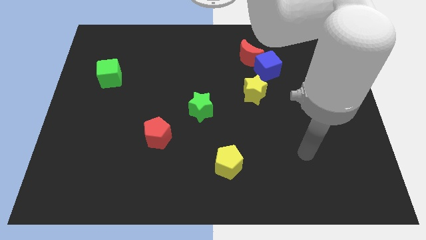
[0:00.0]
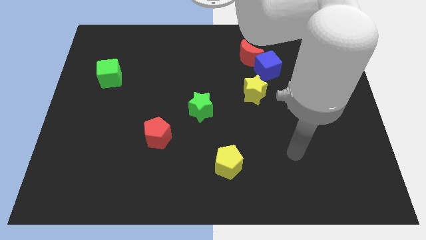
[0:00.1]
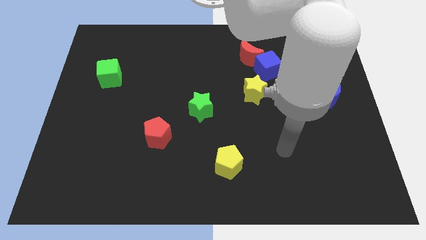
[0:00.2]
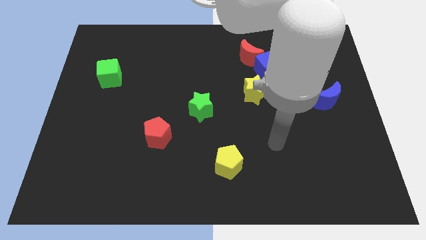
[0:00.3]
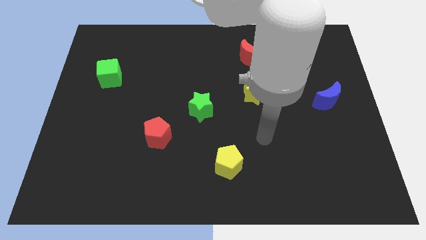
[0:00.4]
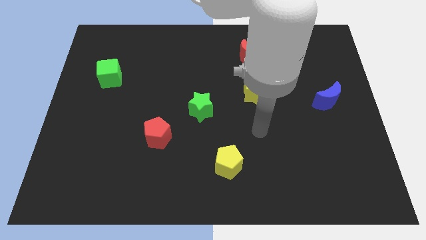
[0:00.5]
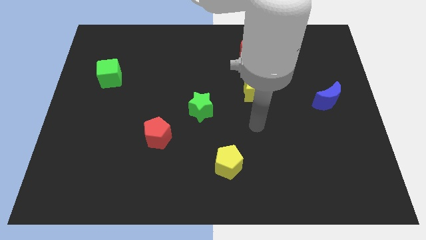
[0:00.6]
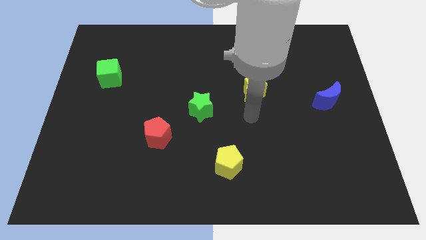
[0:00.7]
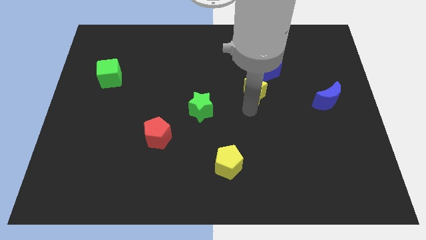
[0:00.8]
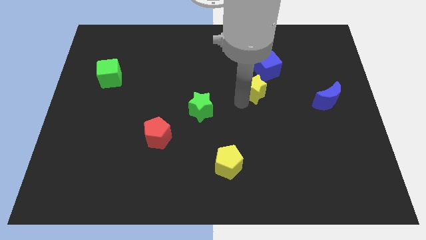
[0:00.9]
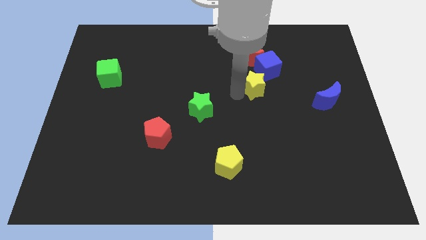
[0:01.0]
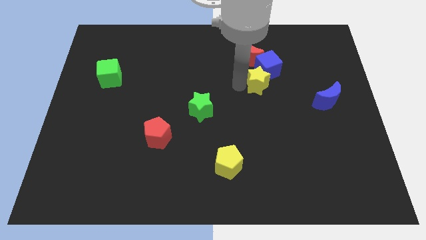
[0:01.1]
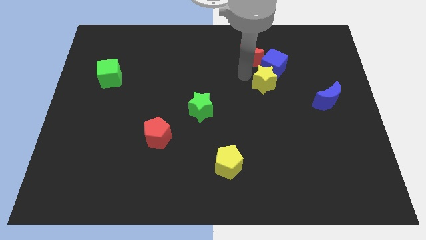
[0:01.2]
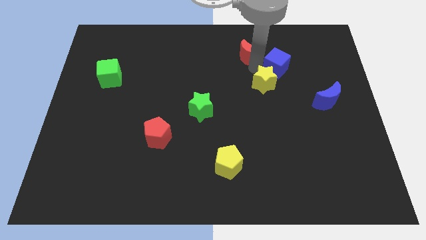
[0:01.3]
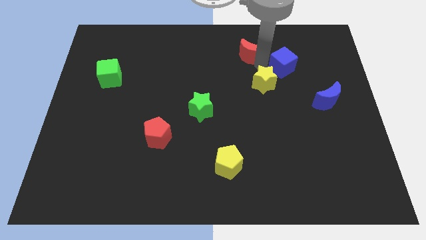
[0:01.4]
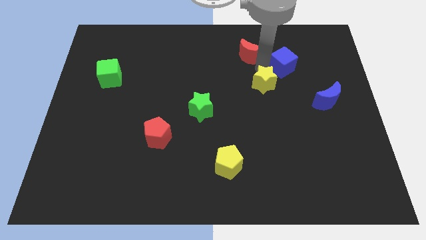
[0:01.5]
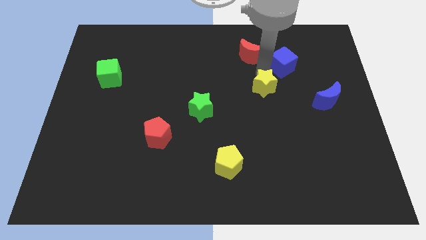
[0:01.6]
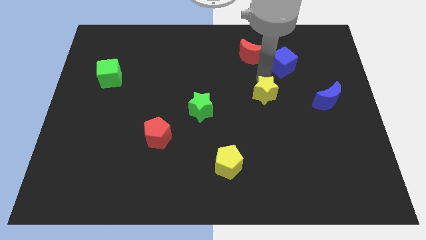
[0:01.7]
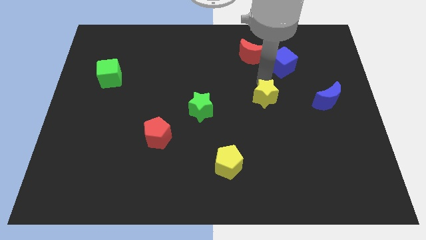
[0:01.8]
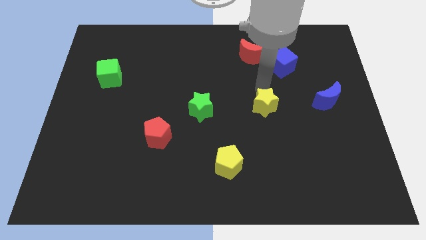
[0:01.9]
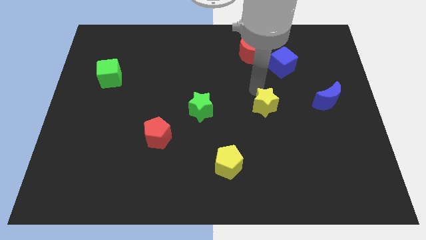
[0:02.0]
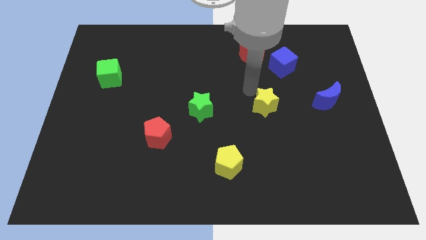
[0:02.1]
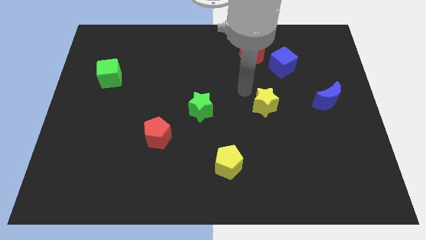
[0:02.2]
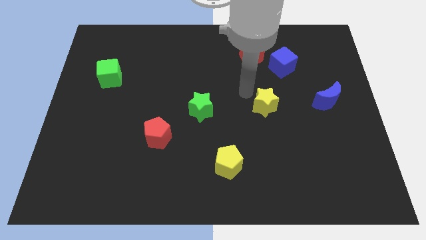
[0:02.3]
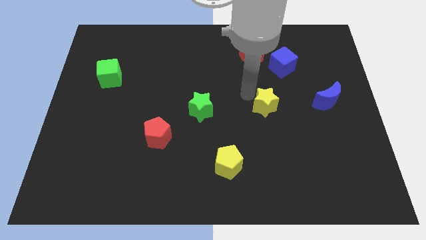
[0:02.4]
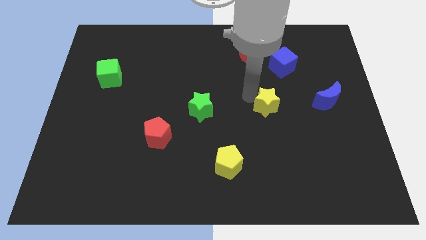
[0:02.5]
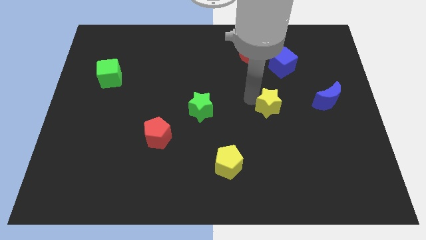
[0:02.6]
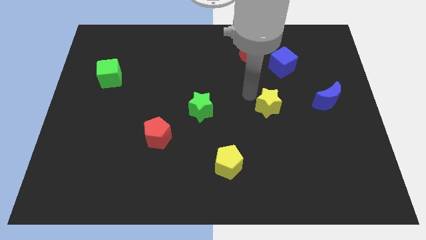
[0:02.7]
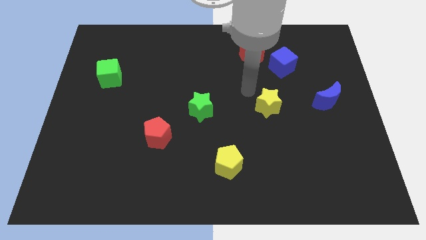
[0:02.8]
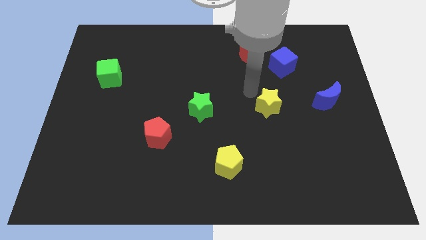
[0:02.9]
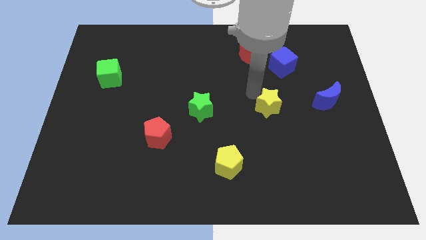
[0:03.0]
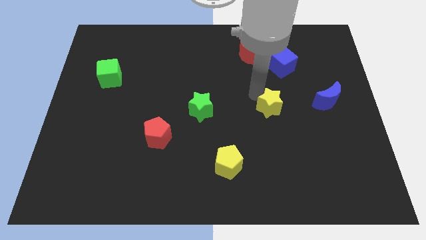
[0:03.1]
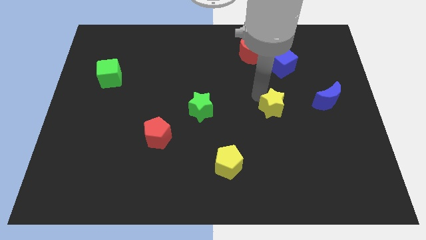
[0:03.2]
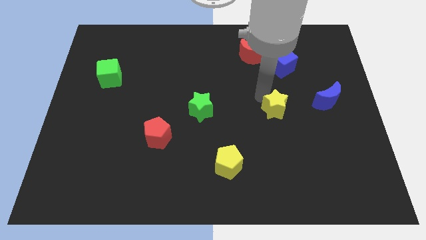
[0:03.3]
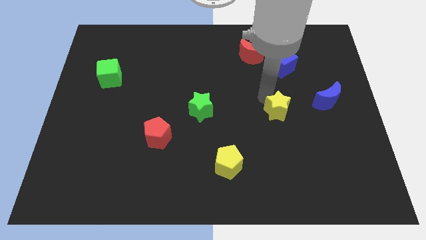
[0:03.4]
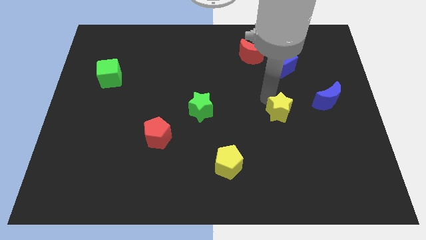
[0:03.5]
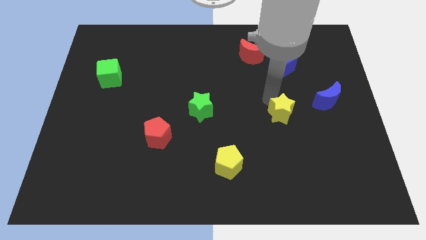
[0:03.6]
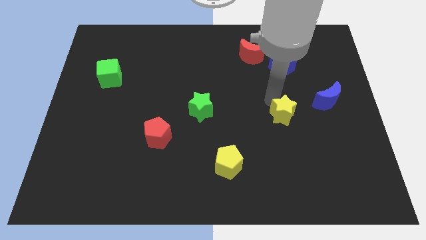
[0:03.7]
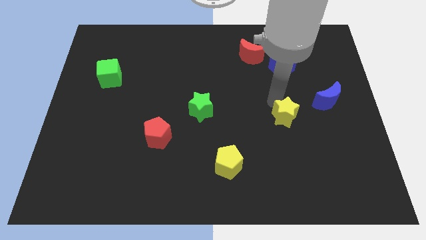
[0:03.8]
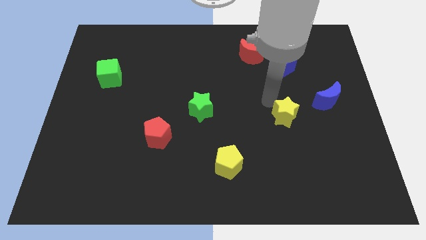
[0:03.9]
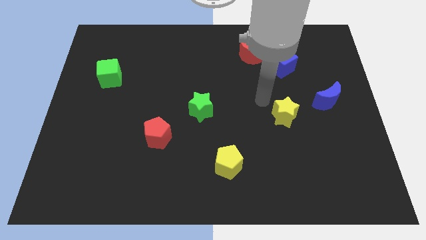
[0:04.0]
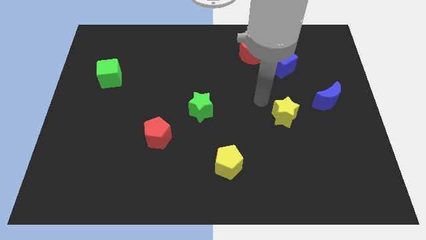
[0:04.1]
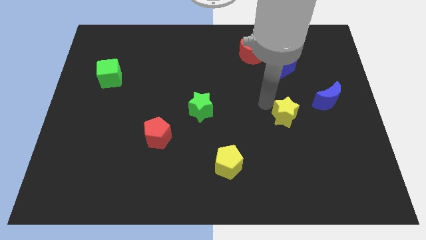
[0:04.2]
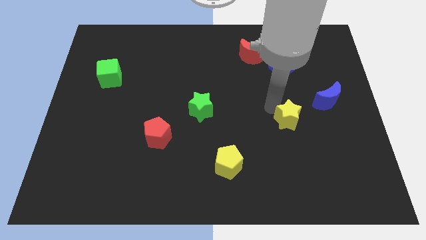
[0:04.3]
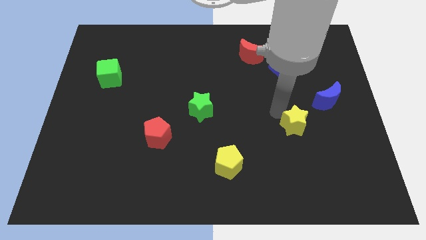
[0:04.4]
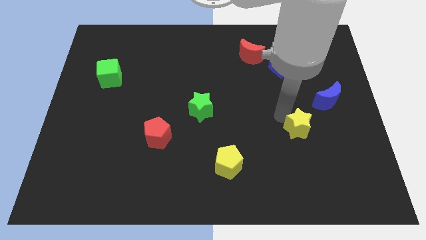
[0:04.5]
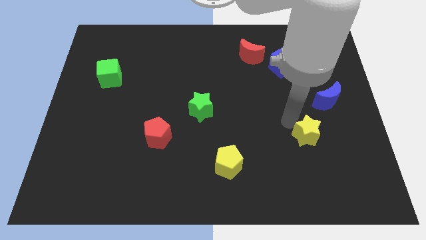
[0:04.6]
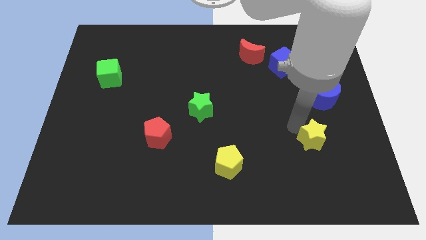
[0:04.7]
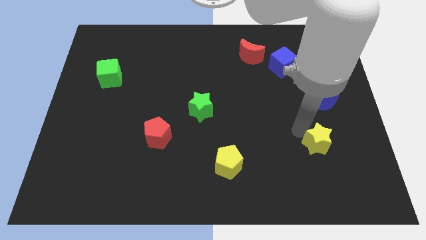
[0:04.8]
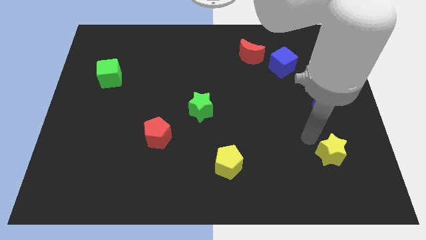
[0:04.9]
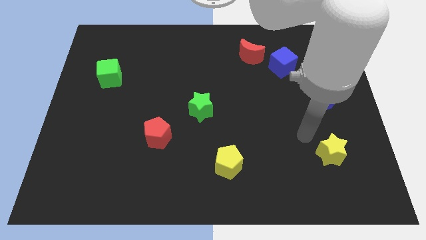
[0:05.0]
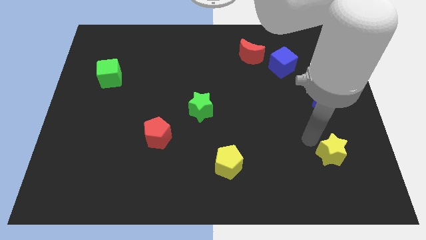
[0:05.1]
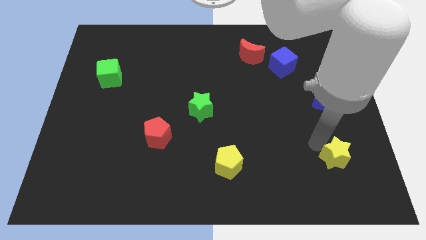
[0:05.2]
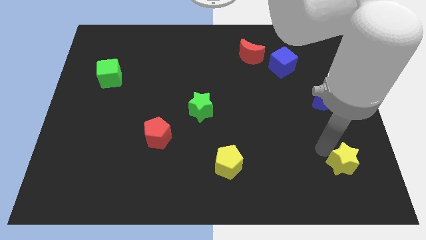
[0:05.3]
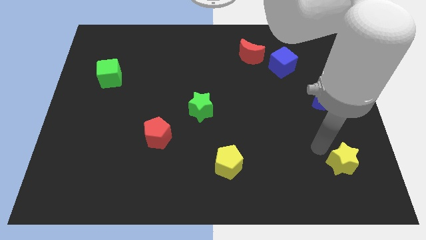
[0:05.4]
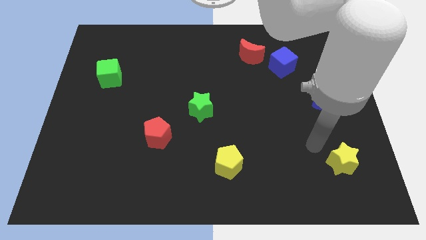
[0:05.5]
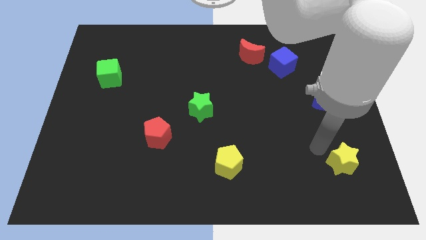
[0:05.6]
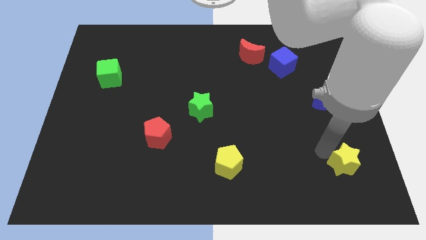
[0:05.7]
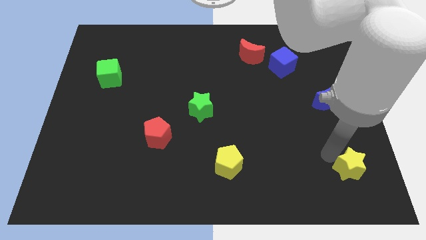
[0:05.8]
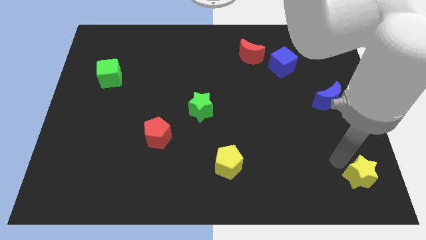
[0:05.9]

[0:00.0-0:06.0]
move the yellow star to the bottom right
